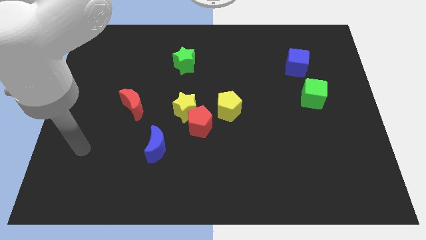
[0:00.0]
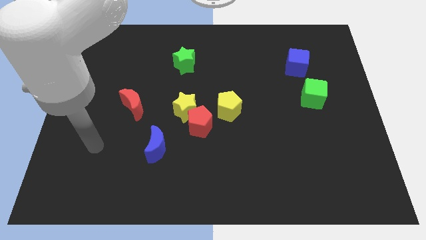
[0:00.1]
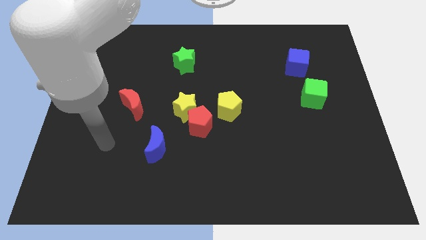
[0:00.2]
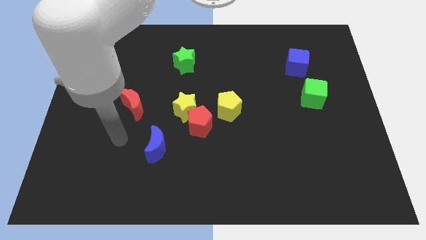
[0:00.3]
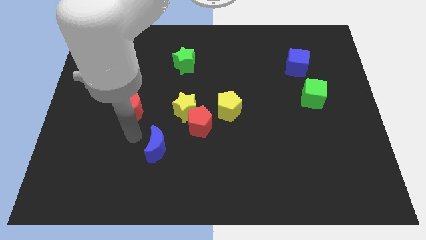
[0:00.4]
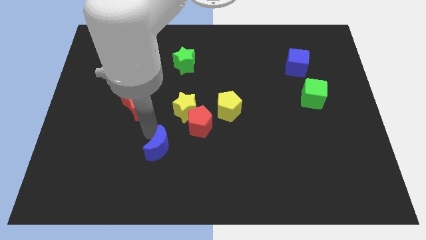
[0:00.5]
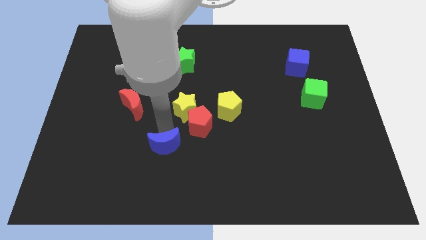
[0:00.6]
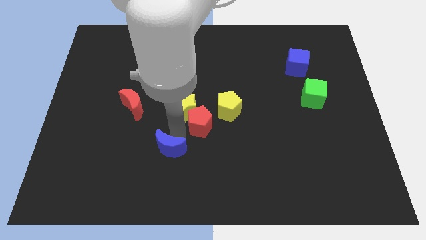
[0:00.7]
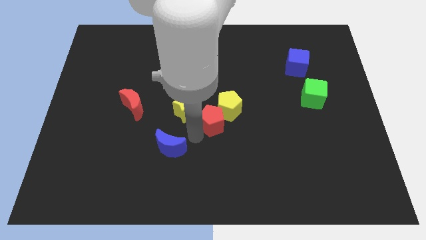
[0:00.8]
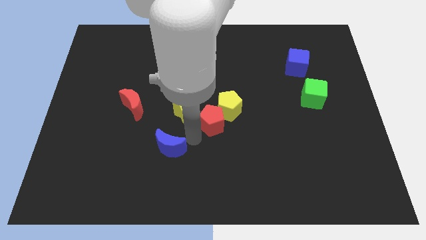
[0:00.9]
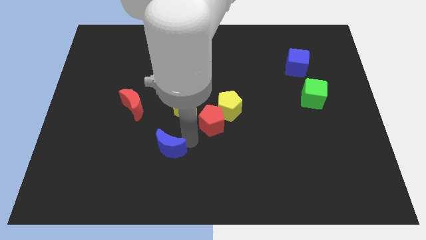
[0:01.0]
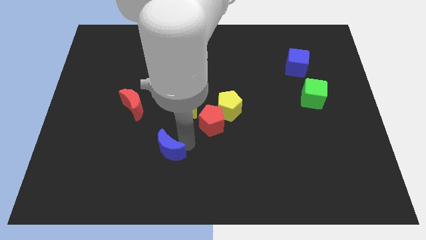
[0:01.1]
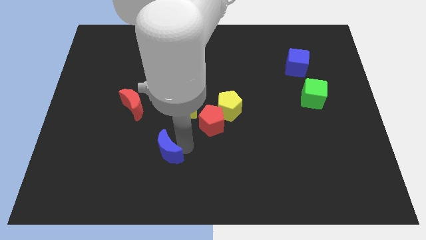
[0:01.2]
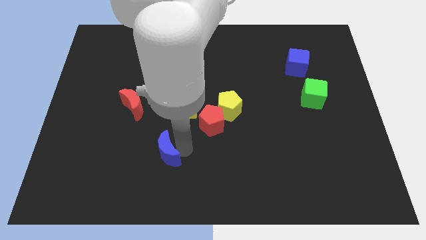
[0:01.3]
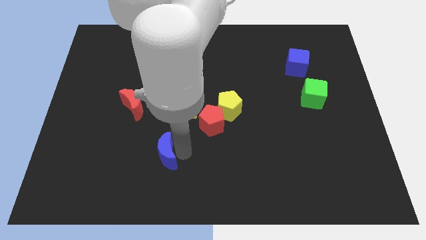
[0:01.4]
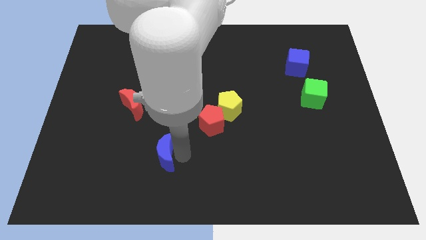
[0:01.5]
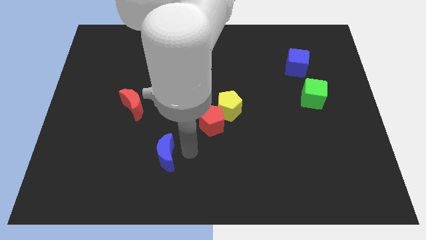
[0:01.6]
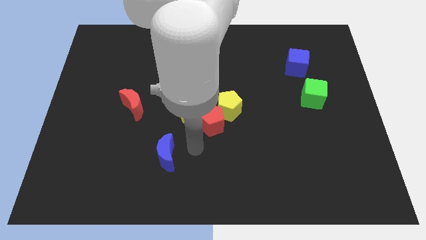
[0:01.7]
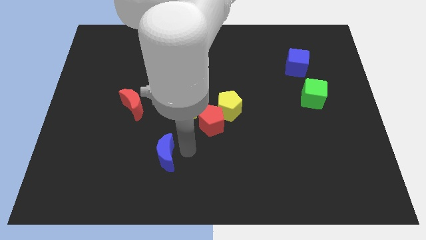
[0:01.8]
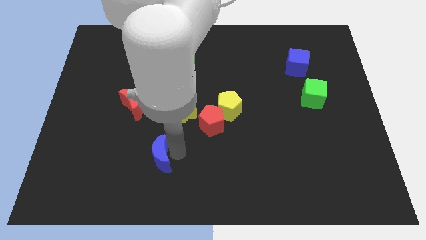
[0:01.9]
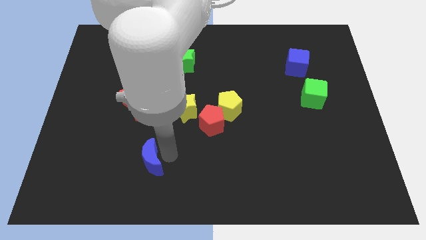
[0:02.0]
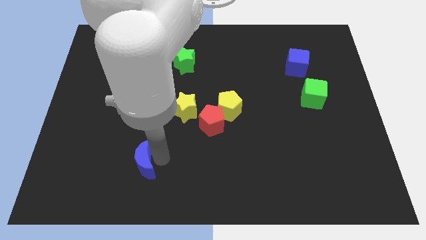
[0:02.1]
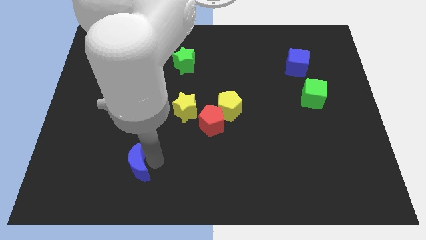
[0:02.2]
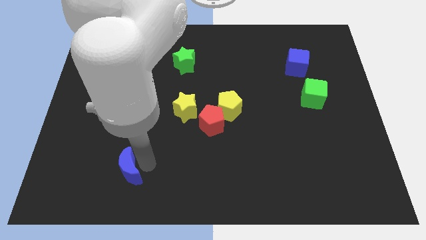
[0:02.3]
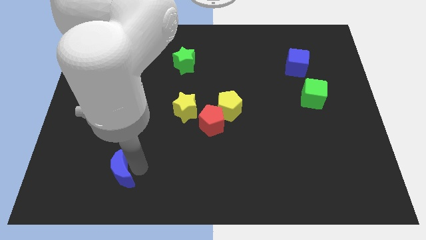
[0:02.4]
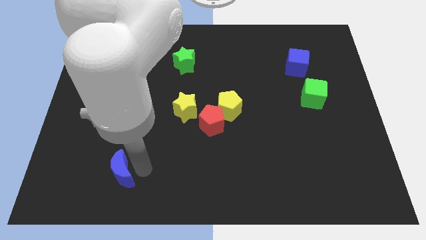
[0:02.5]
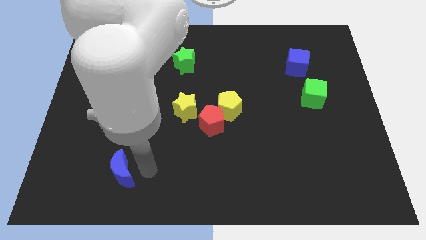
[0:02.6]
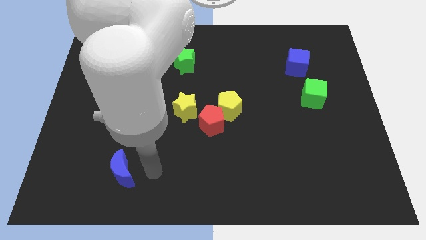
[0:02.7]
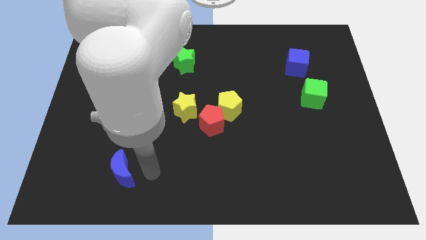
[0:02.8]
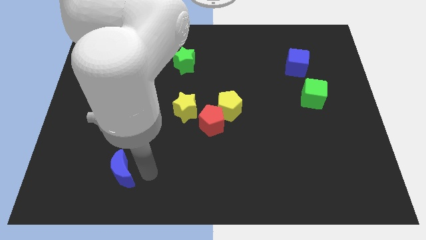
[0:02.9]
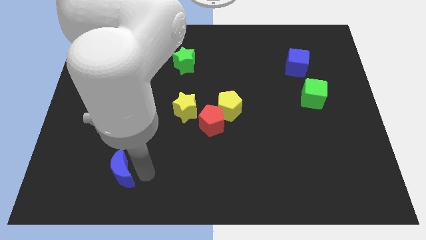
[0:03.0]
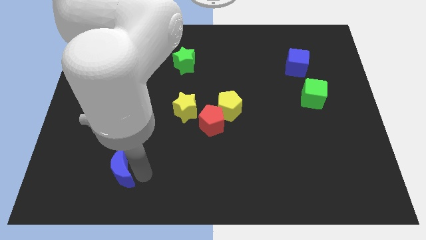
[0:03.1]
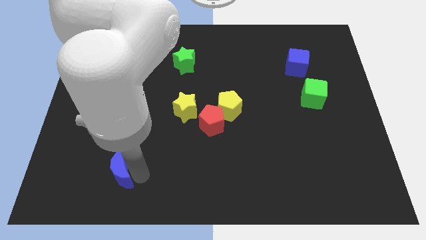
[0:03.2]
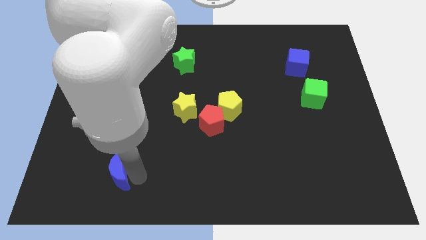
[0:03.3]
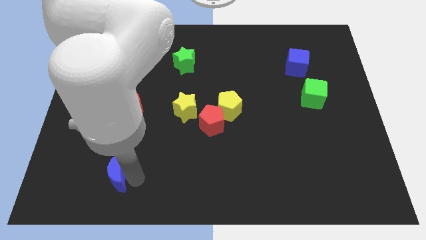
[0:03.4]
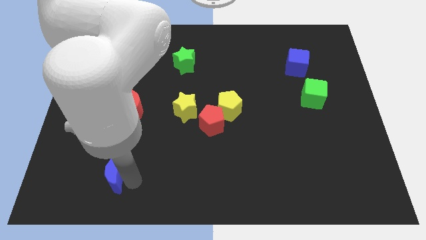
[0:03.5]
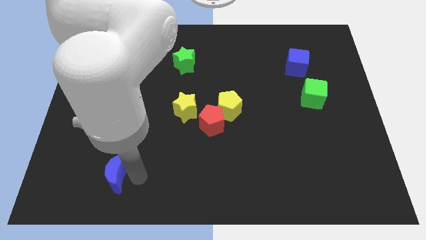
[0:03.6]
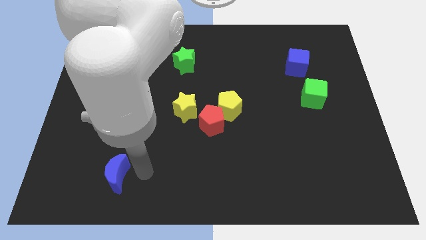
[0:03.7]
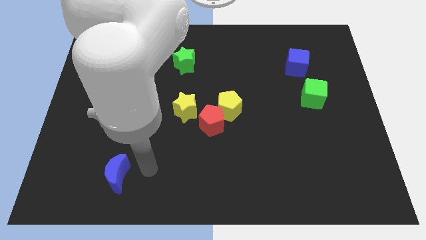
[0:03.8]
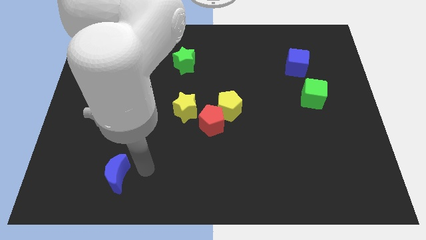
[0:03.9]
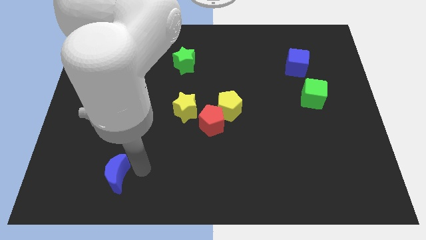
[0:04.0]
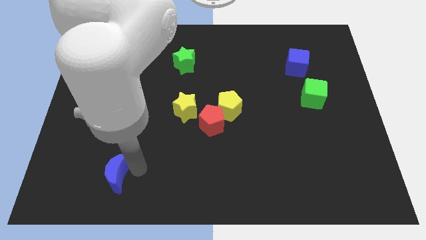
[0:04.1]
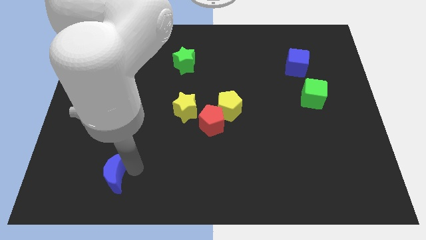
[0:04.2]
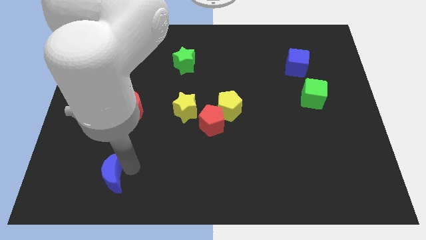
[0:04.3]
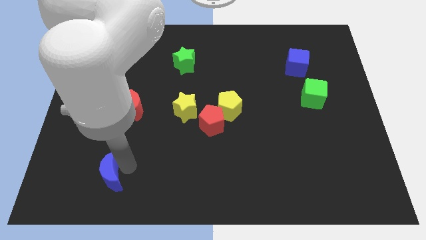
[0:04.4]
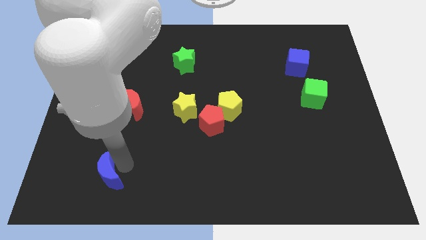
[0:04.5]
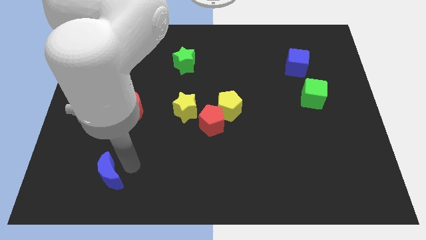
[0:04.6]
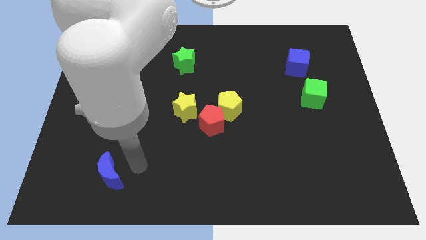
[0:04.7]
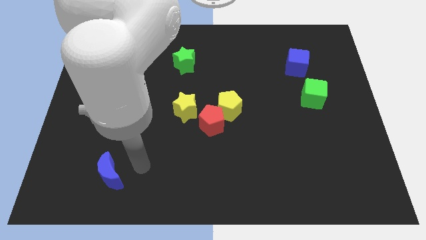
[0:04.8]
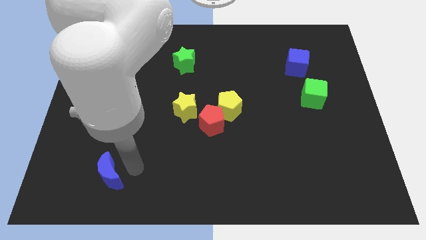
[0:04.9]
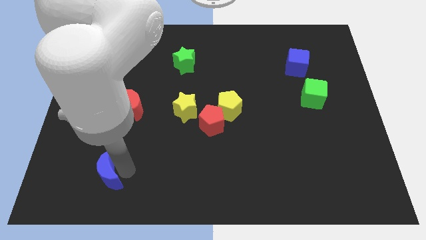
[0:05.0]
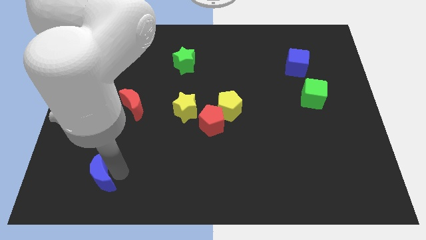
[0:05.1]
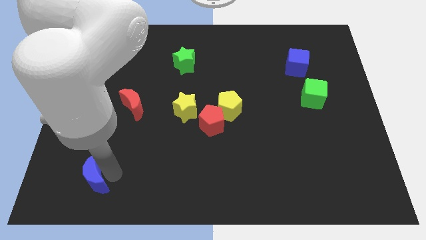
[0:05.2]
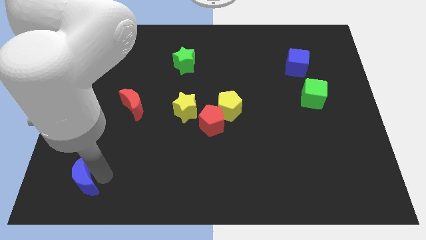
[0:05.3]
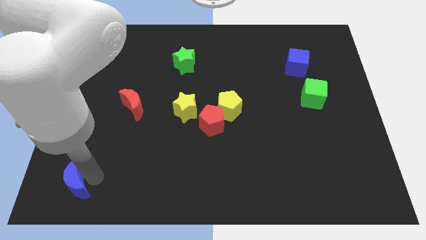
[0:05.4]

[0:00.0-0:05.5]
push the blue moon to the bottom left

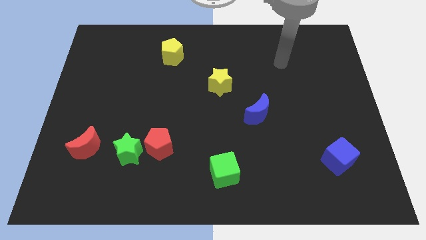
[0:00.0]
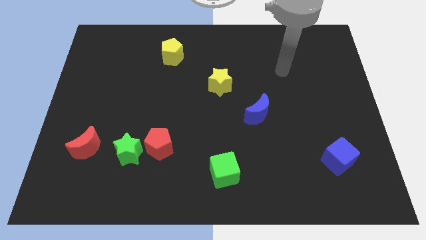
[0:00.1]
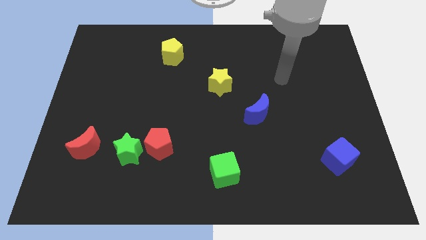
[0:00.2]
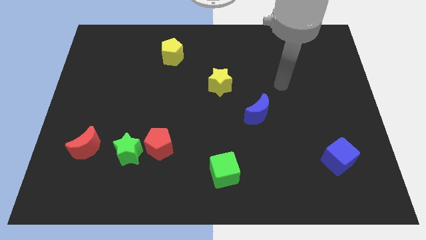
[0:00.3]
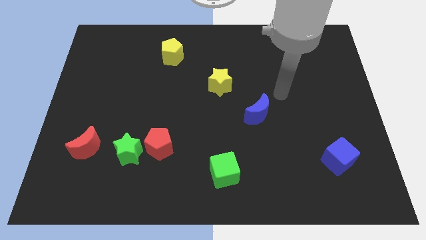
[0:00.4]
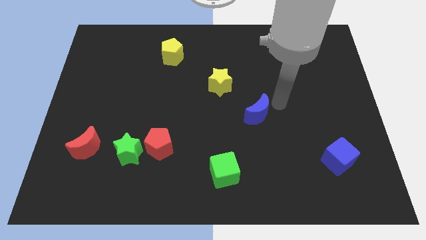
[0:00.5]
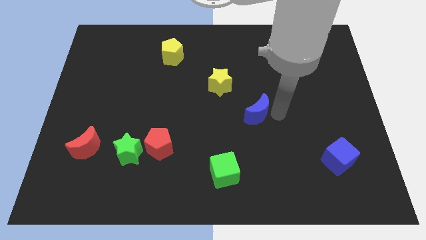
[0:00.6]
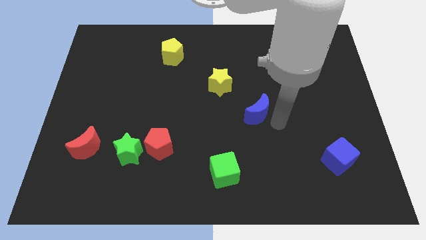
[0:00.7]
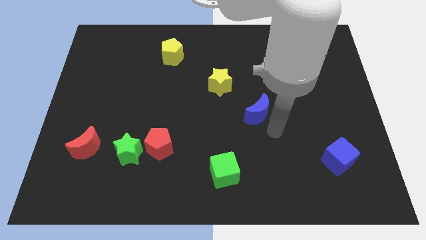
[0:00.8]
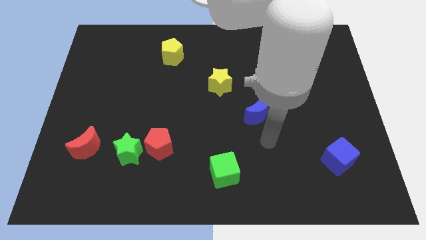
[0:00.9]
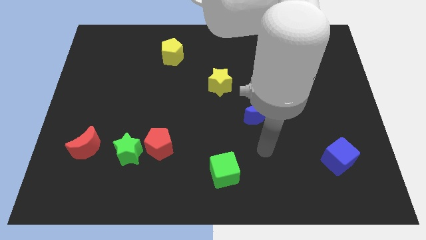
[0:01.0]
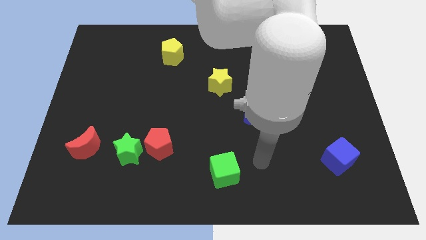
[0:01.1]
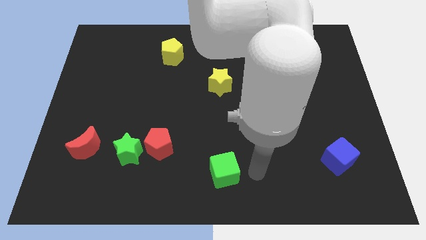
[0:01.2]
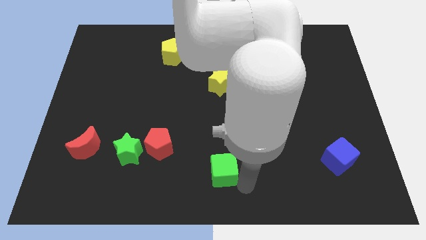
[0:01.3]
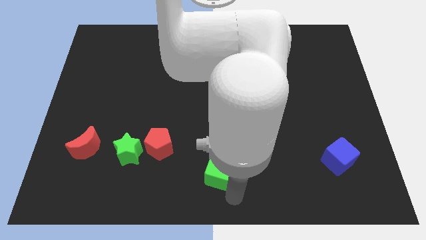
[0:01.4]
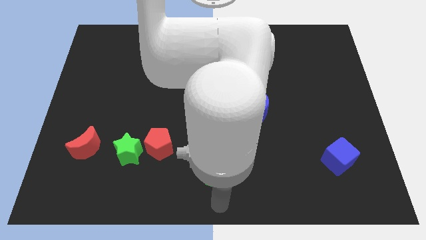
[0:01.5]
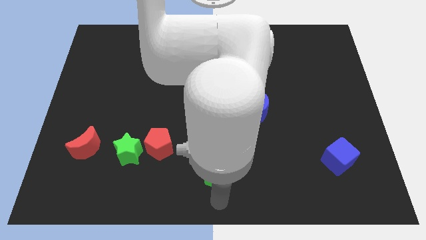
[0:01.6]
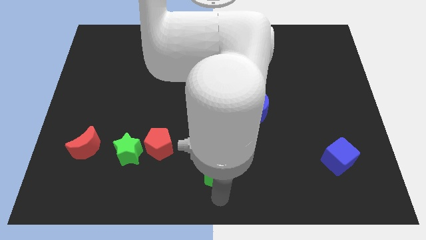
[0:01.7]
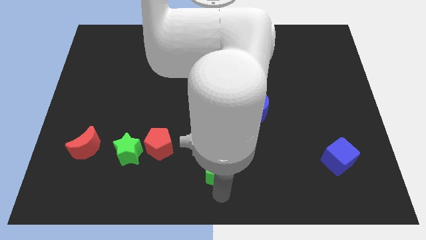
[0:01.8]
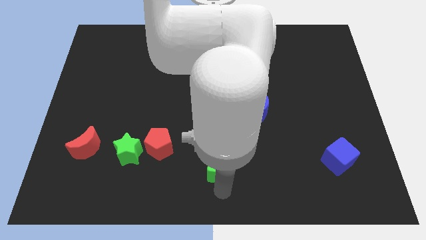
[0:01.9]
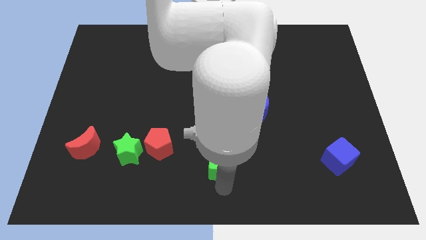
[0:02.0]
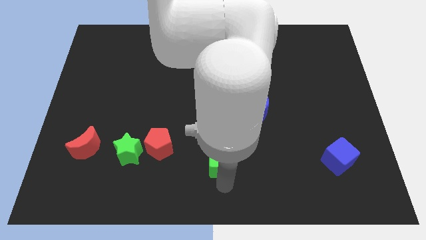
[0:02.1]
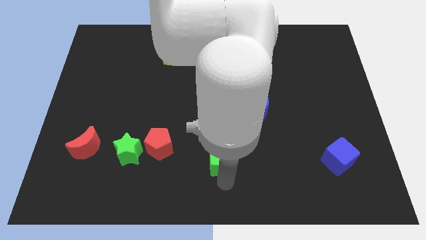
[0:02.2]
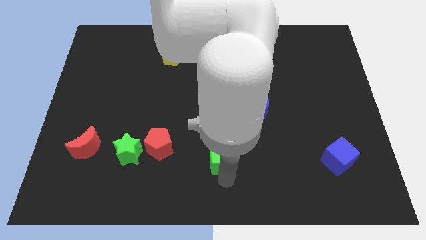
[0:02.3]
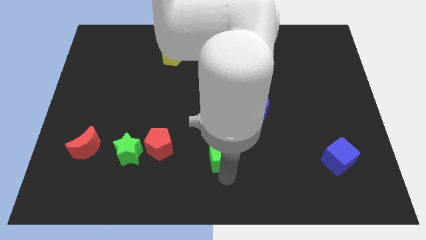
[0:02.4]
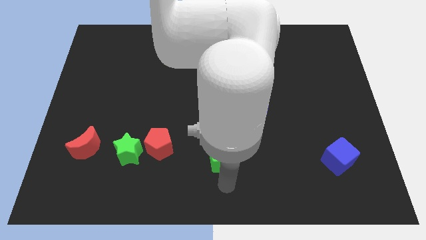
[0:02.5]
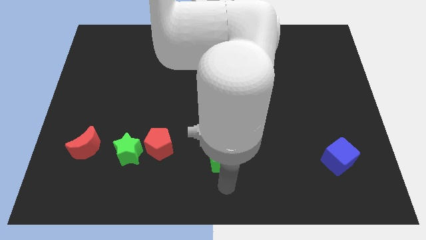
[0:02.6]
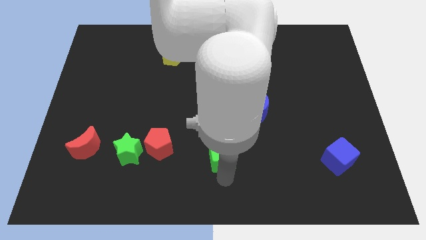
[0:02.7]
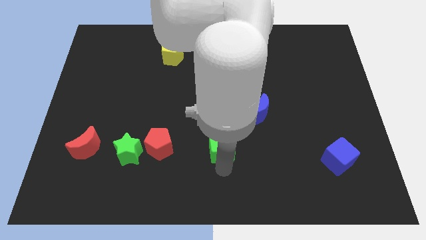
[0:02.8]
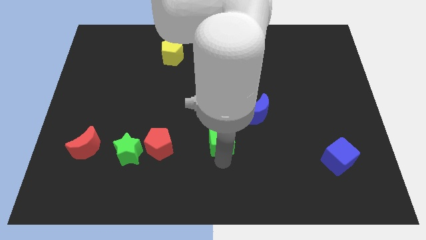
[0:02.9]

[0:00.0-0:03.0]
slide the green cube to the center of the board
